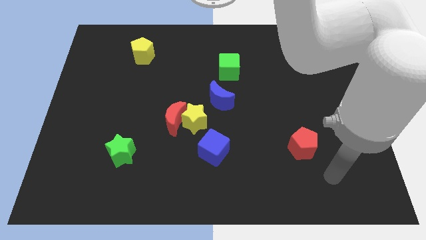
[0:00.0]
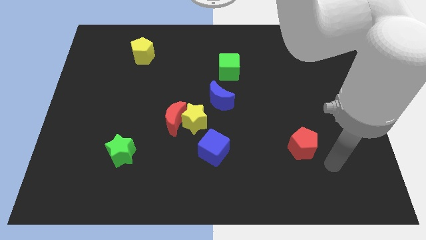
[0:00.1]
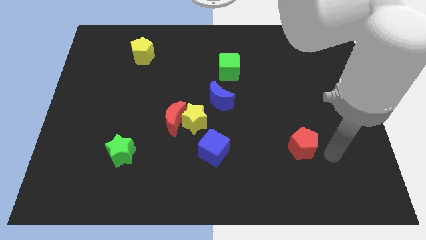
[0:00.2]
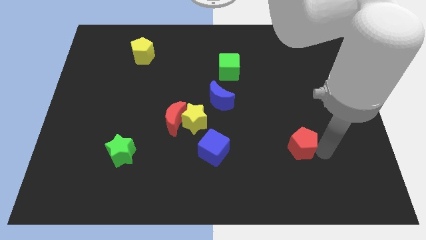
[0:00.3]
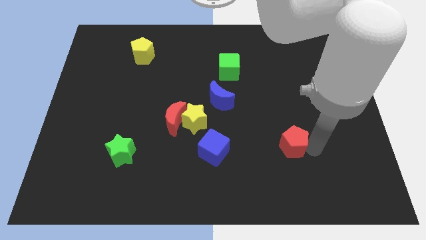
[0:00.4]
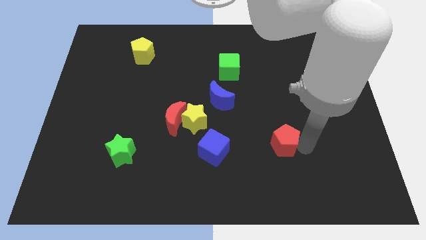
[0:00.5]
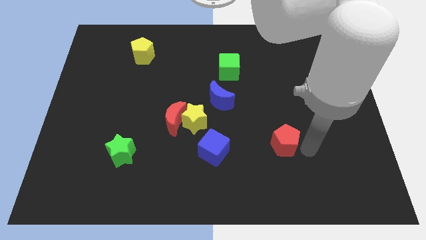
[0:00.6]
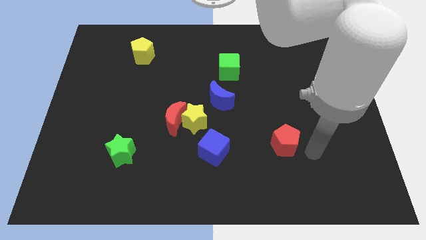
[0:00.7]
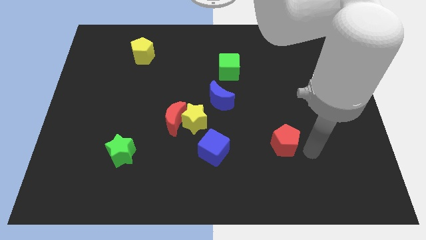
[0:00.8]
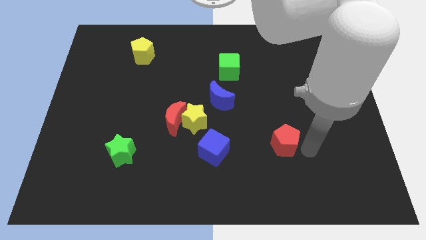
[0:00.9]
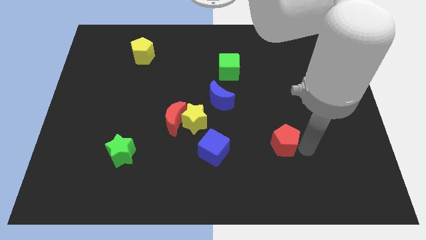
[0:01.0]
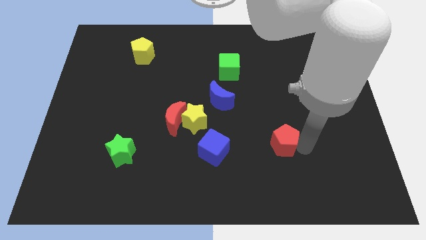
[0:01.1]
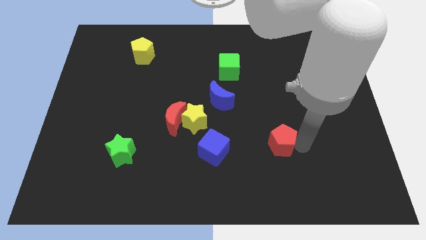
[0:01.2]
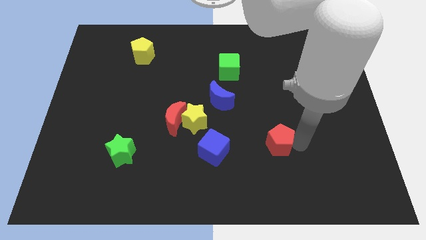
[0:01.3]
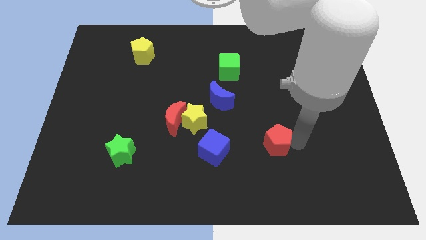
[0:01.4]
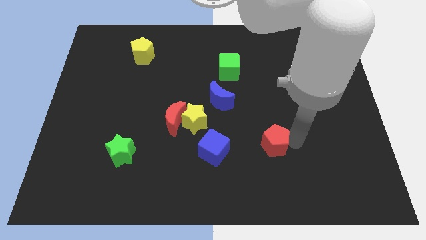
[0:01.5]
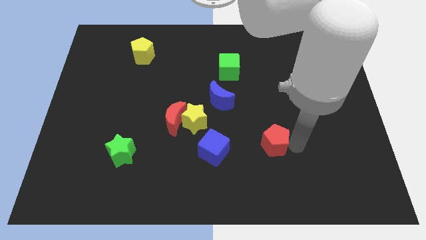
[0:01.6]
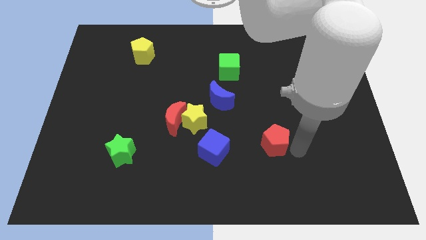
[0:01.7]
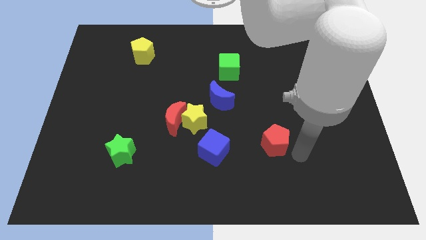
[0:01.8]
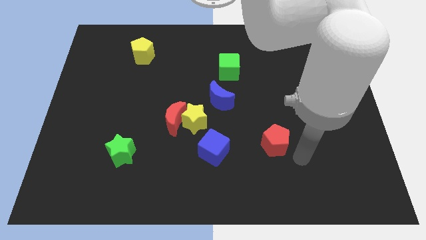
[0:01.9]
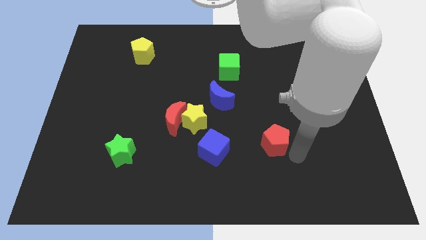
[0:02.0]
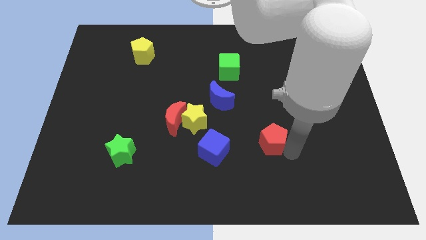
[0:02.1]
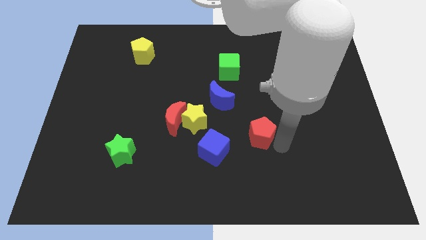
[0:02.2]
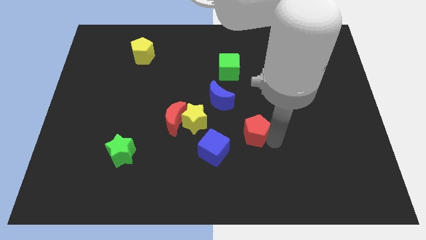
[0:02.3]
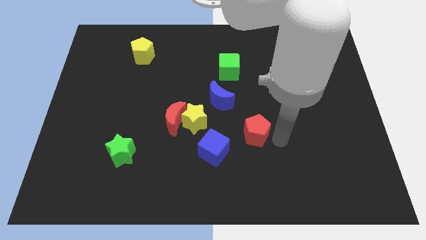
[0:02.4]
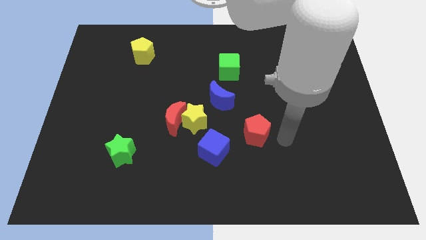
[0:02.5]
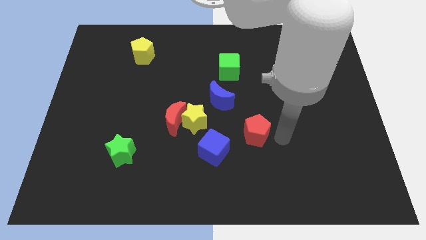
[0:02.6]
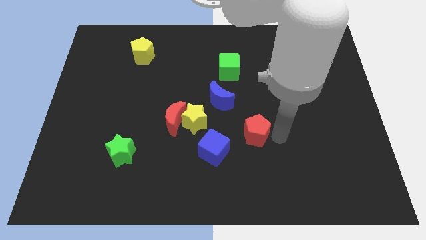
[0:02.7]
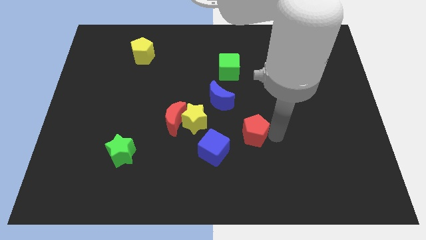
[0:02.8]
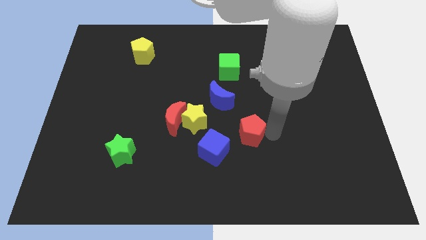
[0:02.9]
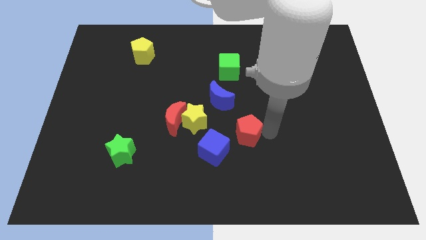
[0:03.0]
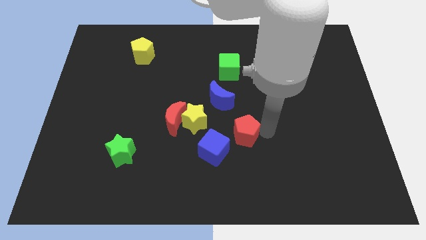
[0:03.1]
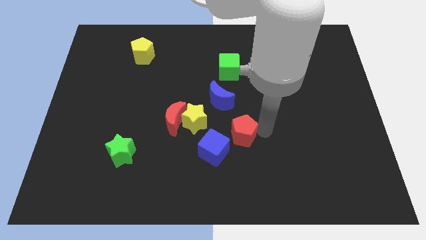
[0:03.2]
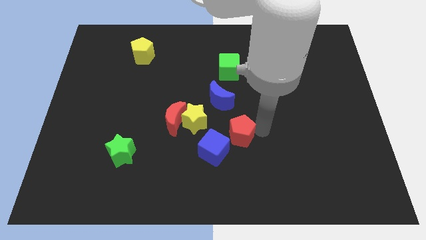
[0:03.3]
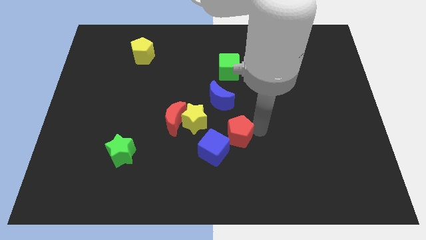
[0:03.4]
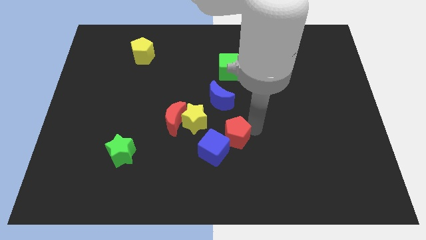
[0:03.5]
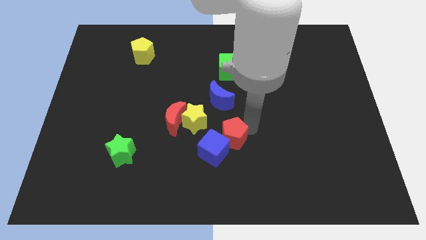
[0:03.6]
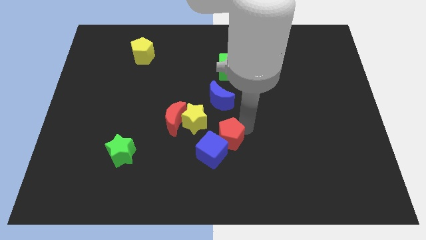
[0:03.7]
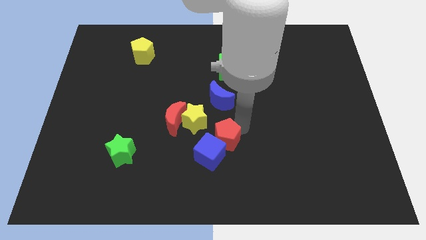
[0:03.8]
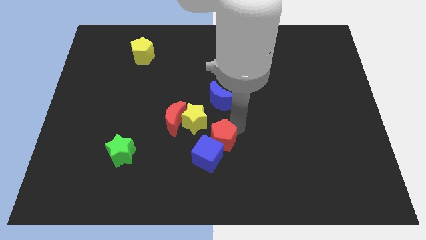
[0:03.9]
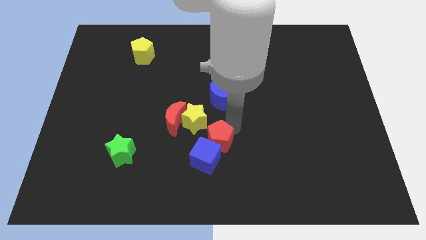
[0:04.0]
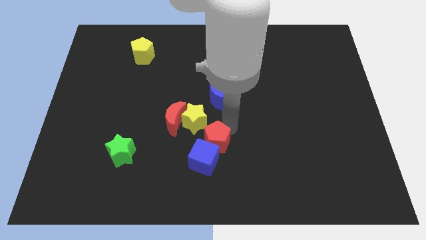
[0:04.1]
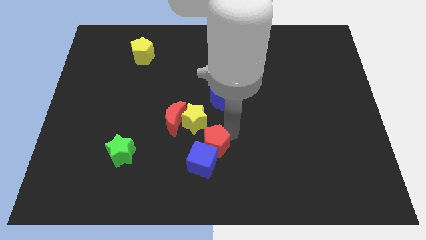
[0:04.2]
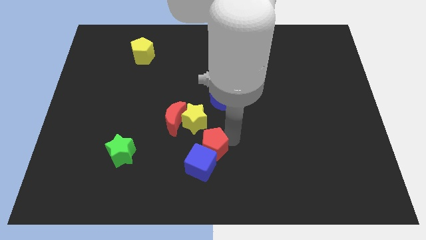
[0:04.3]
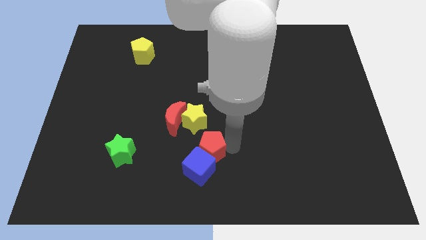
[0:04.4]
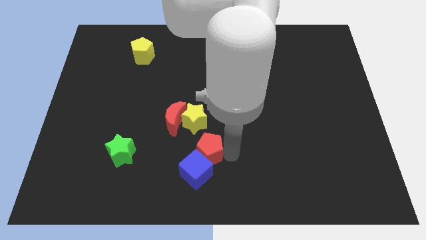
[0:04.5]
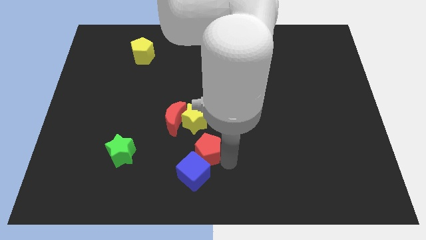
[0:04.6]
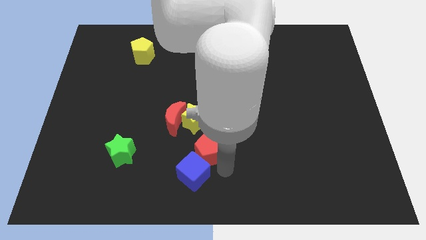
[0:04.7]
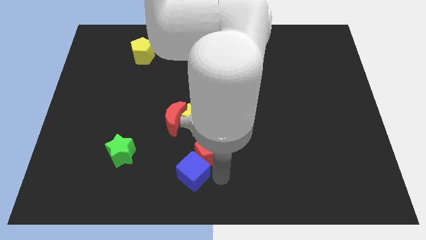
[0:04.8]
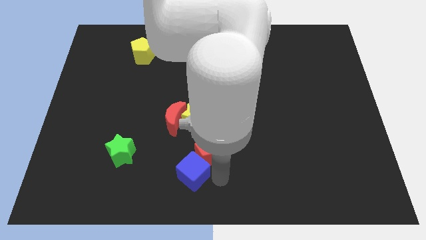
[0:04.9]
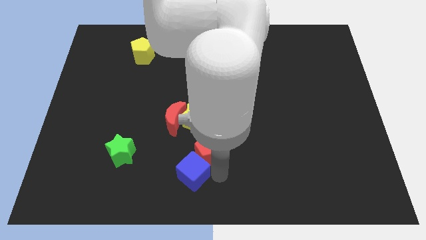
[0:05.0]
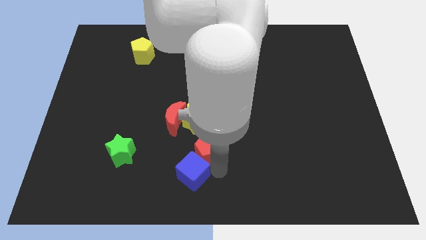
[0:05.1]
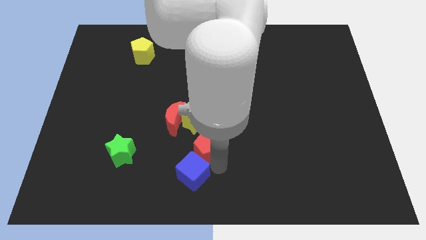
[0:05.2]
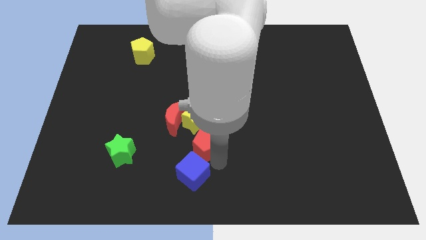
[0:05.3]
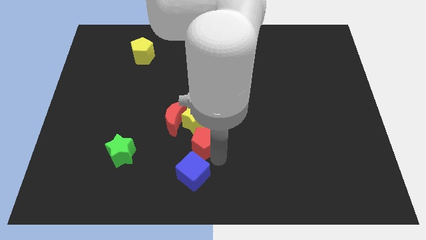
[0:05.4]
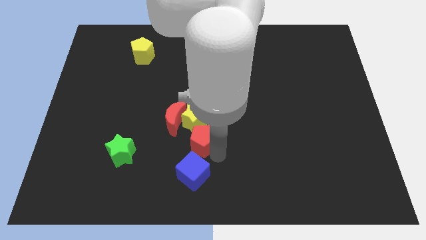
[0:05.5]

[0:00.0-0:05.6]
push the red pentagon close to the yellow star

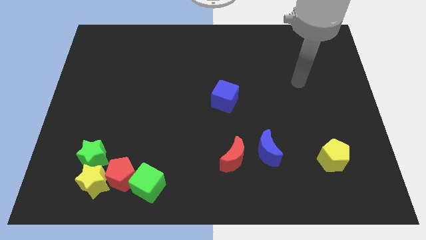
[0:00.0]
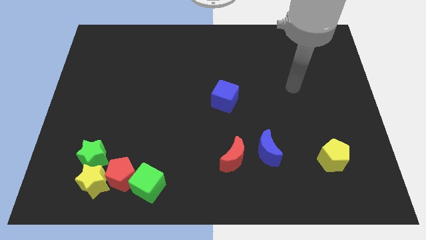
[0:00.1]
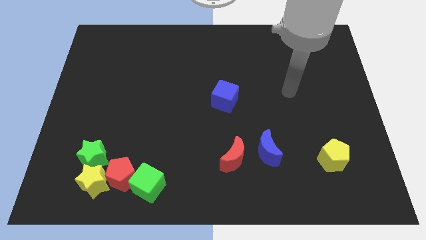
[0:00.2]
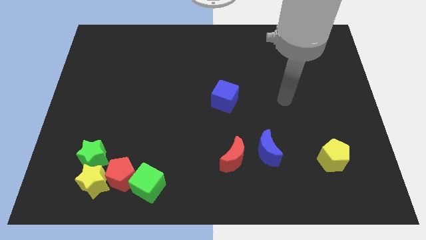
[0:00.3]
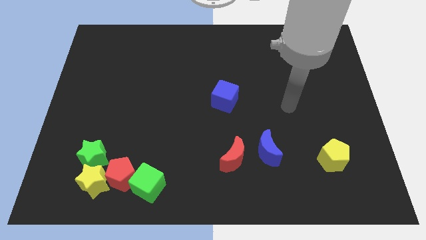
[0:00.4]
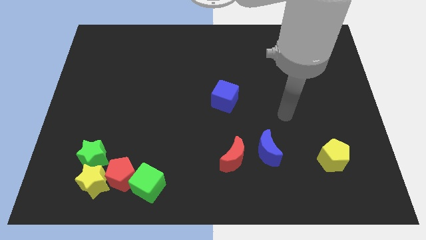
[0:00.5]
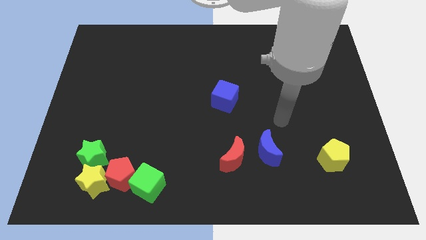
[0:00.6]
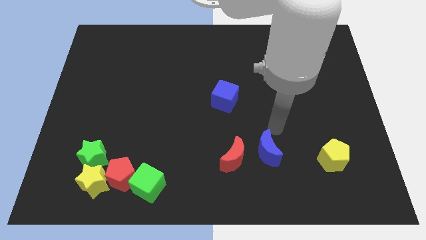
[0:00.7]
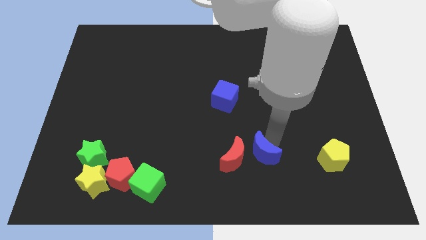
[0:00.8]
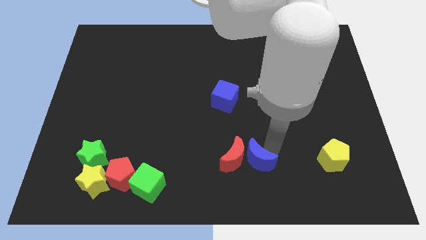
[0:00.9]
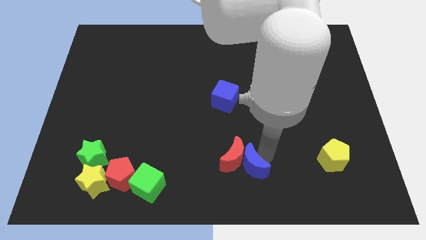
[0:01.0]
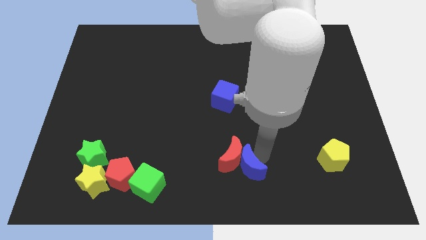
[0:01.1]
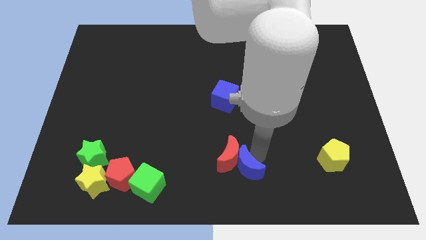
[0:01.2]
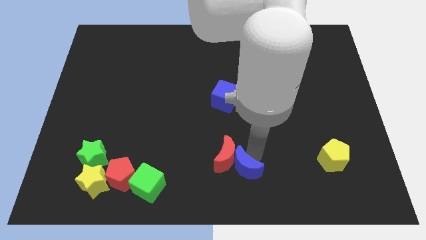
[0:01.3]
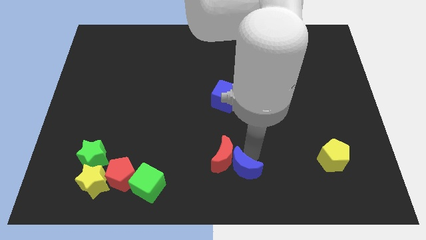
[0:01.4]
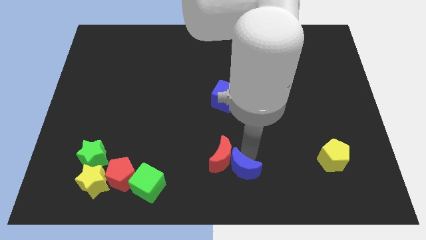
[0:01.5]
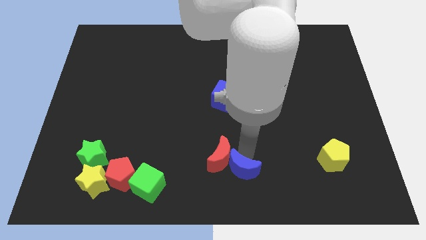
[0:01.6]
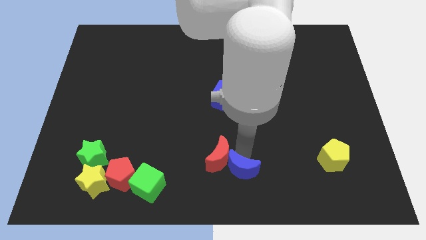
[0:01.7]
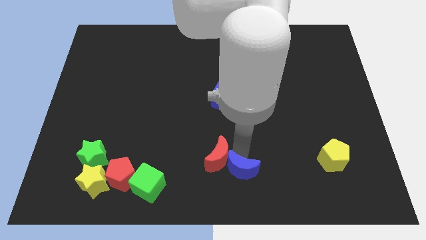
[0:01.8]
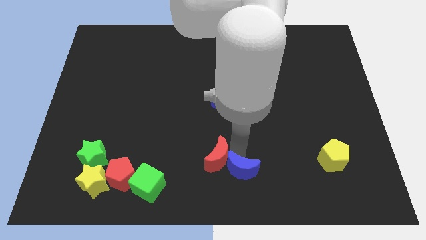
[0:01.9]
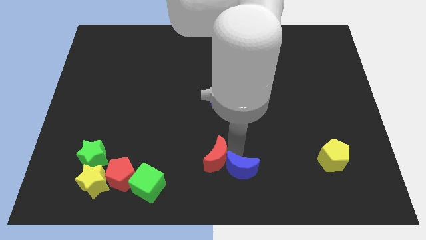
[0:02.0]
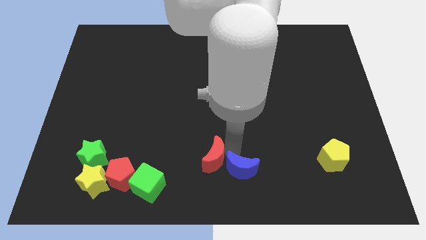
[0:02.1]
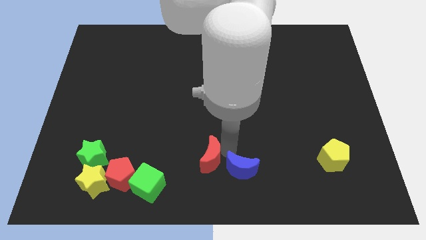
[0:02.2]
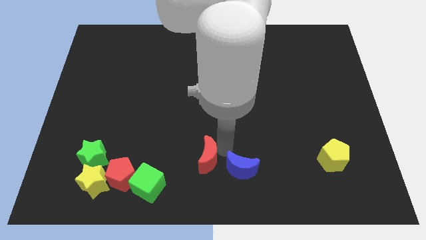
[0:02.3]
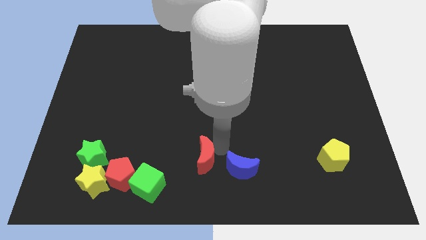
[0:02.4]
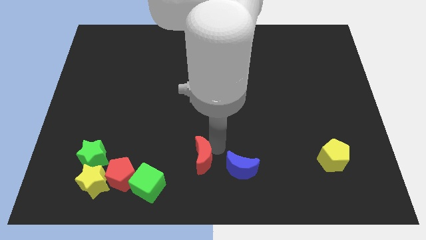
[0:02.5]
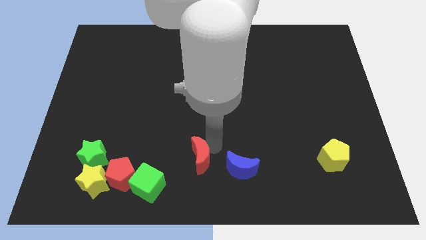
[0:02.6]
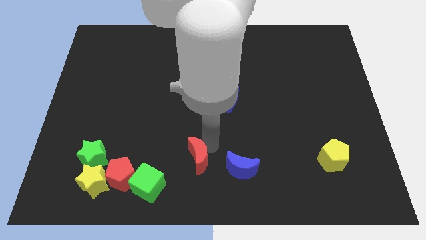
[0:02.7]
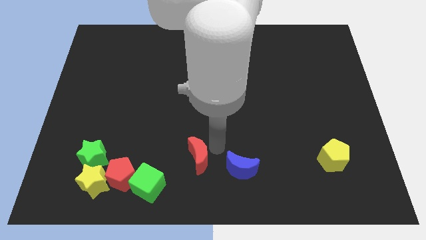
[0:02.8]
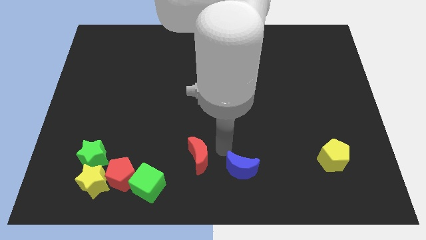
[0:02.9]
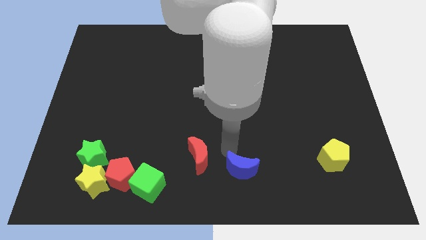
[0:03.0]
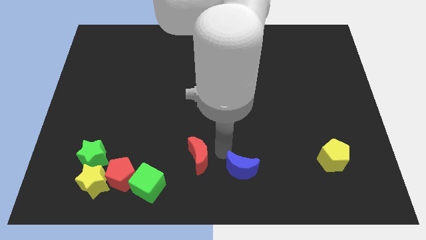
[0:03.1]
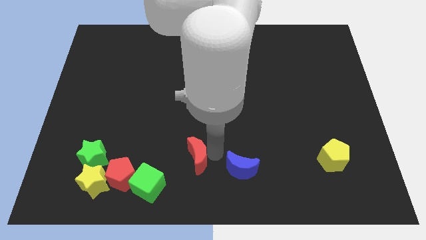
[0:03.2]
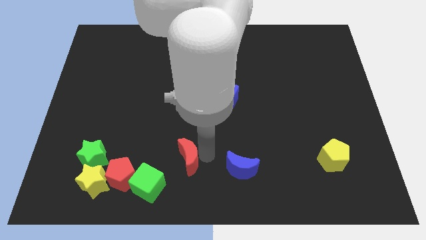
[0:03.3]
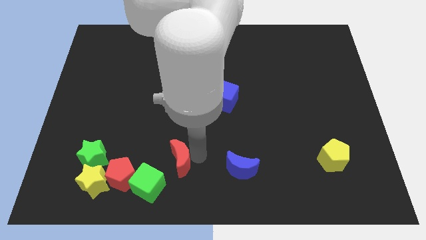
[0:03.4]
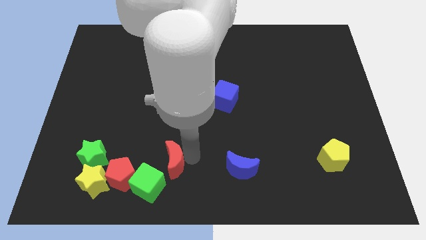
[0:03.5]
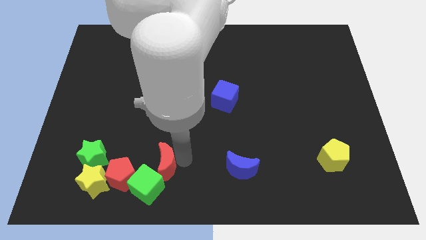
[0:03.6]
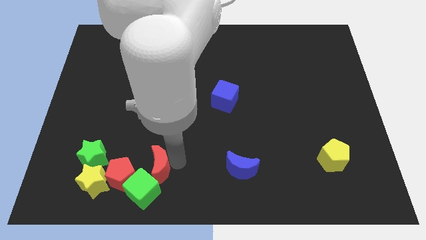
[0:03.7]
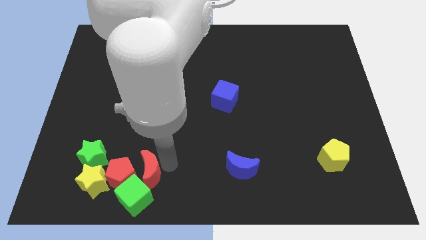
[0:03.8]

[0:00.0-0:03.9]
push the red moon close to the red pentagon
